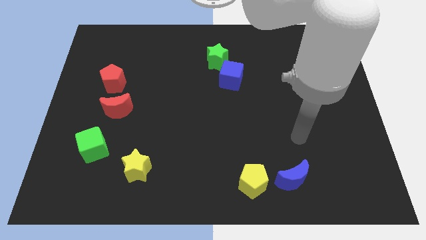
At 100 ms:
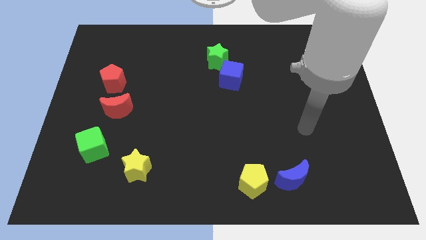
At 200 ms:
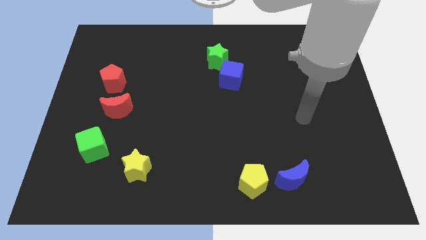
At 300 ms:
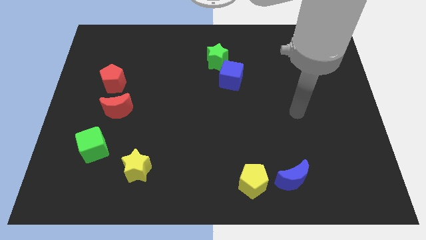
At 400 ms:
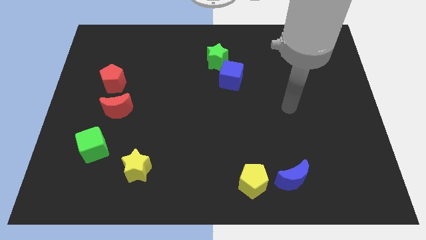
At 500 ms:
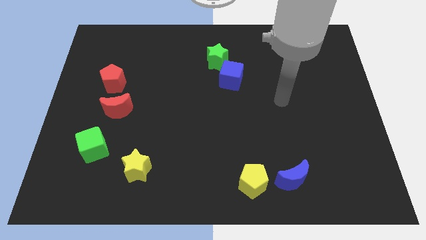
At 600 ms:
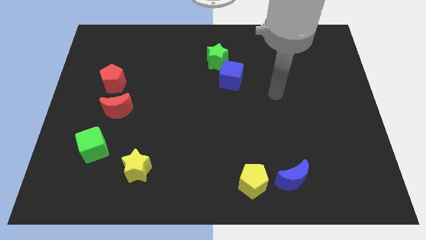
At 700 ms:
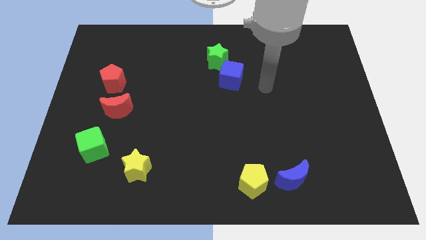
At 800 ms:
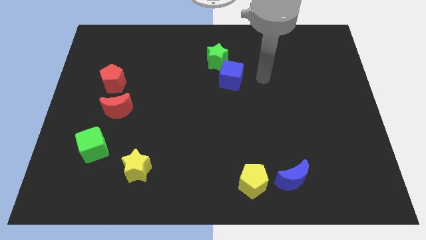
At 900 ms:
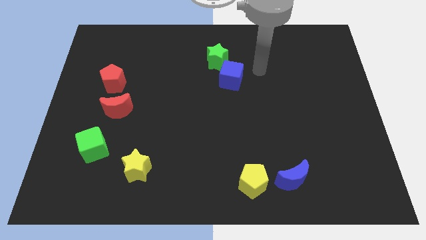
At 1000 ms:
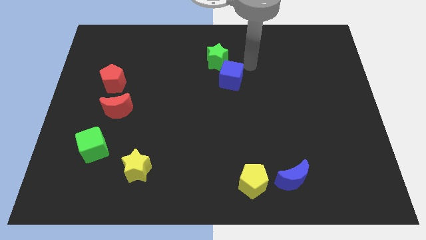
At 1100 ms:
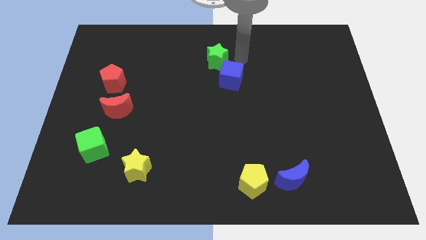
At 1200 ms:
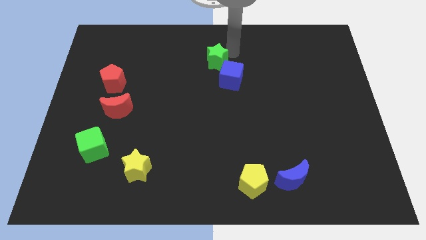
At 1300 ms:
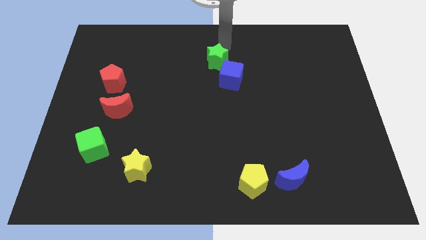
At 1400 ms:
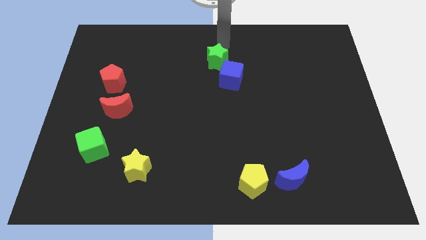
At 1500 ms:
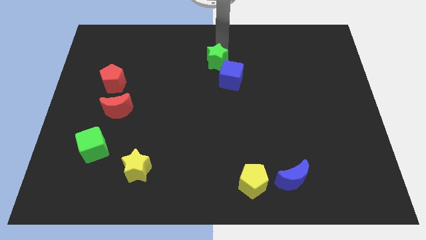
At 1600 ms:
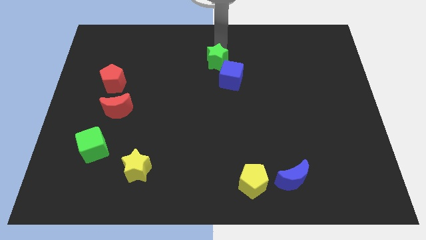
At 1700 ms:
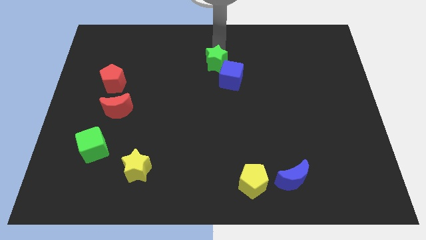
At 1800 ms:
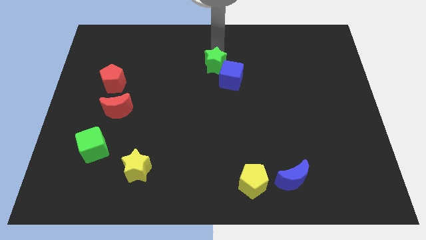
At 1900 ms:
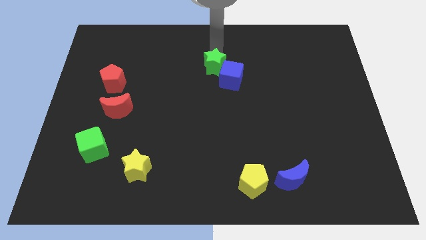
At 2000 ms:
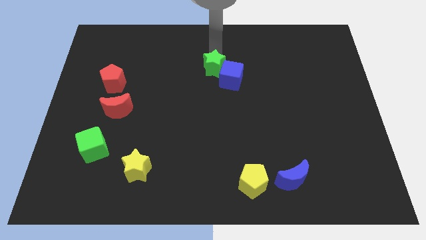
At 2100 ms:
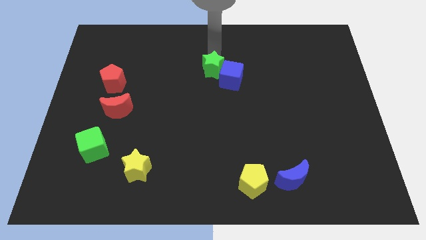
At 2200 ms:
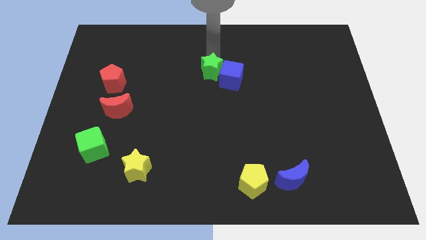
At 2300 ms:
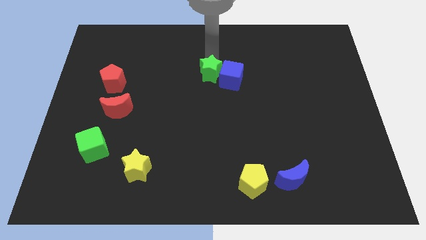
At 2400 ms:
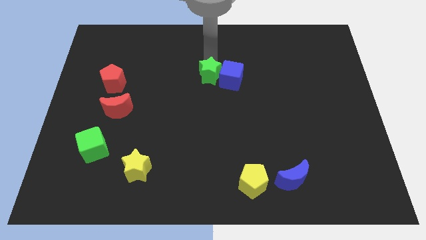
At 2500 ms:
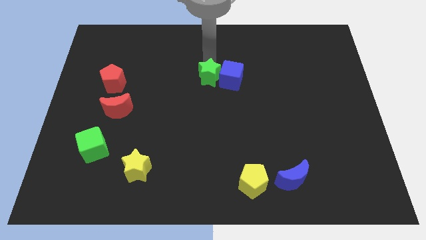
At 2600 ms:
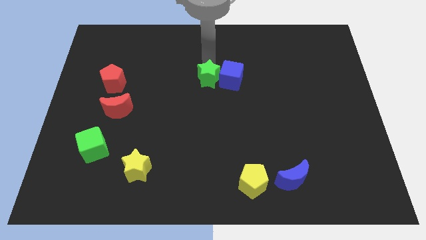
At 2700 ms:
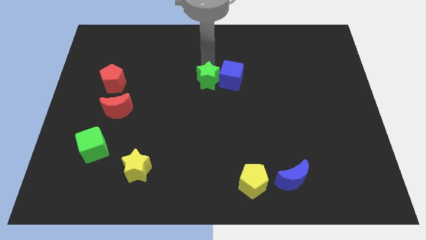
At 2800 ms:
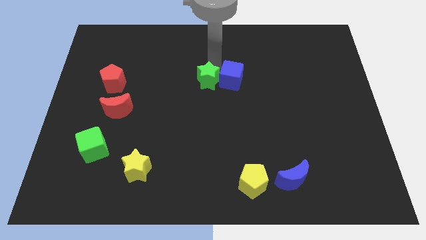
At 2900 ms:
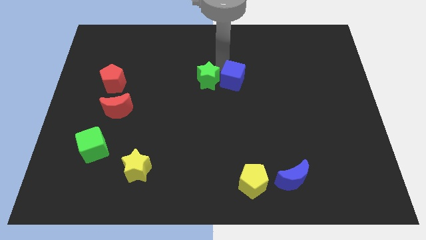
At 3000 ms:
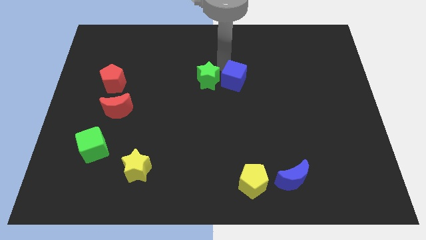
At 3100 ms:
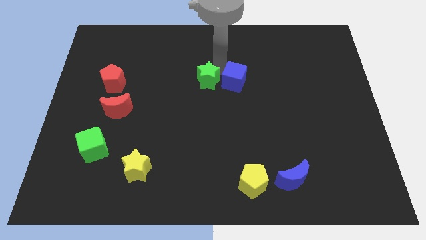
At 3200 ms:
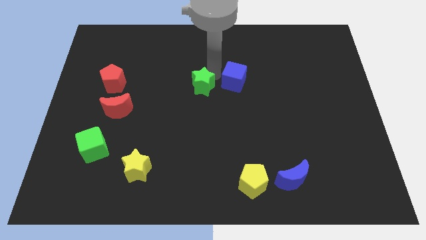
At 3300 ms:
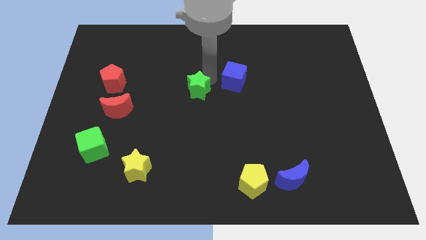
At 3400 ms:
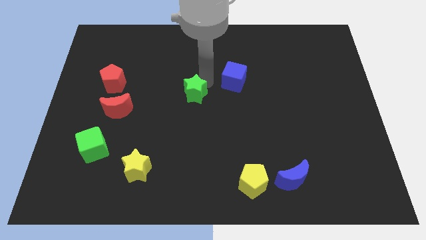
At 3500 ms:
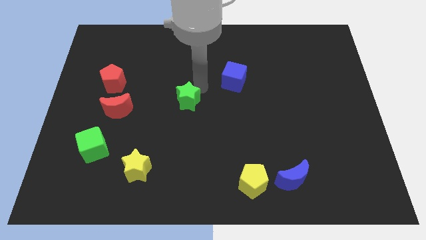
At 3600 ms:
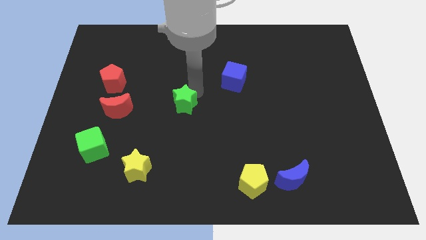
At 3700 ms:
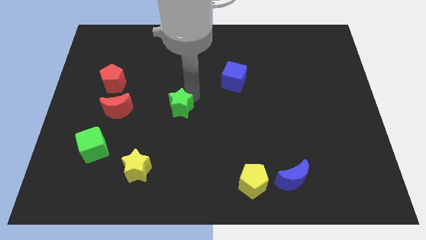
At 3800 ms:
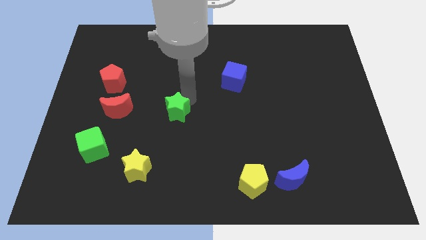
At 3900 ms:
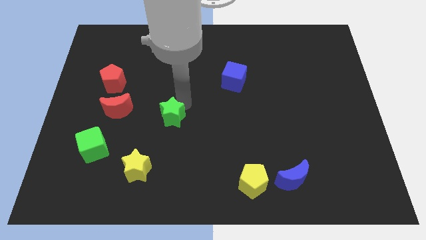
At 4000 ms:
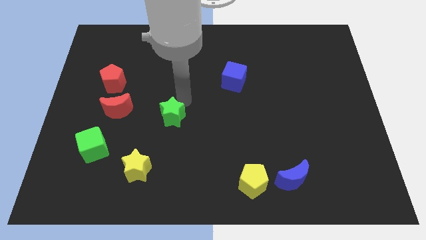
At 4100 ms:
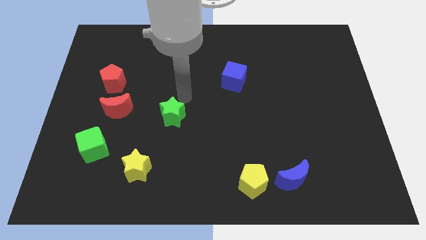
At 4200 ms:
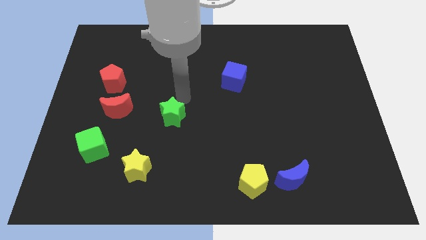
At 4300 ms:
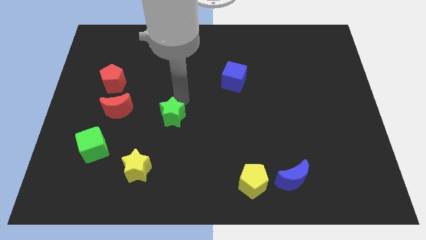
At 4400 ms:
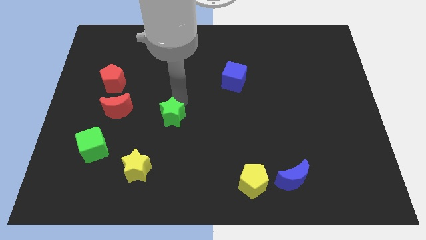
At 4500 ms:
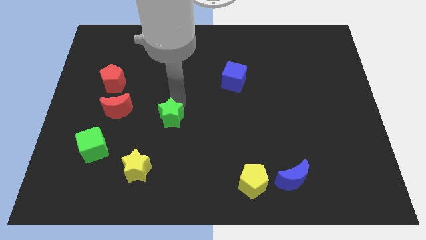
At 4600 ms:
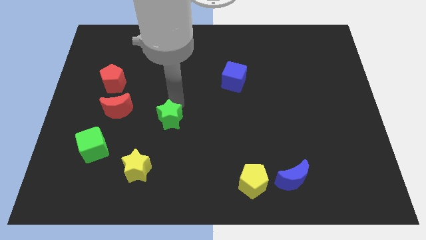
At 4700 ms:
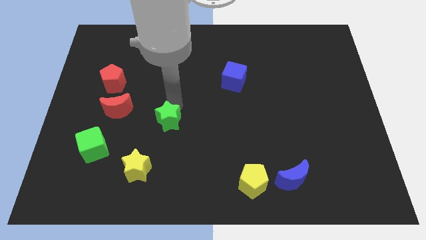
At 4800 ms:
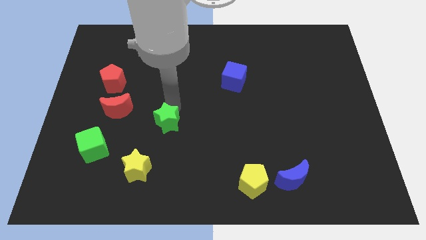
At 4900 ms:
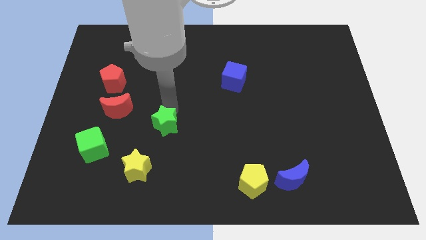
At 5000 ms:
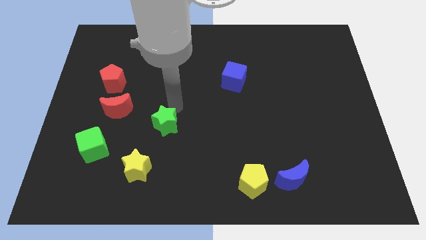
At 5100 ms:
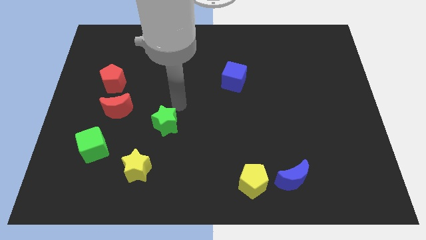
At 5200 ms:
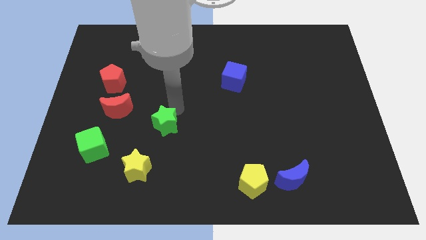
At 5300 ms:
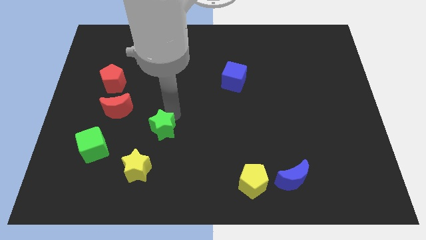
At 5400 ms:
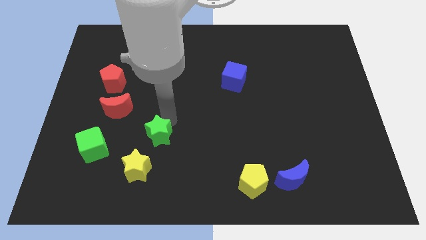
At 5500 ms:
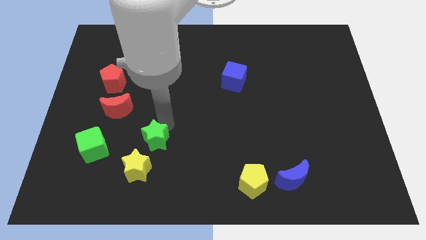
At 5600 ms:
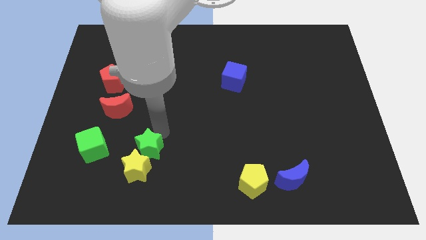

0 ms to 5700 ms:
move the green star towards the yellow star

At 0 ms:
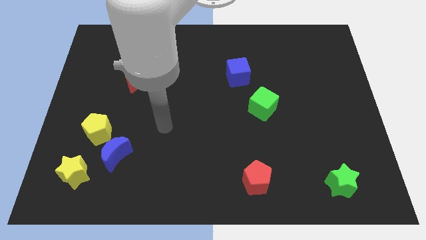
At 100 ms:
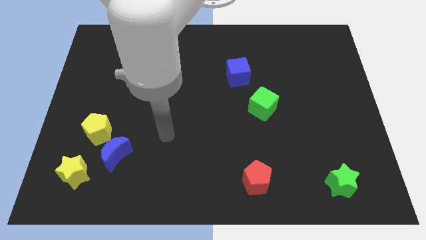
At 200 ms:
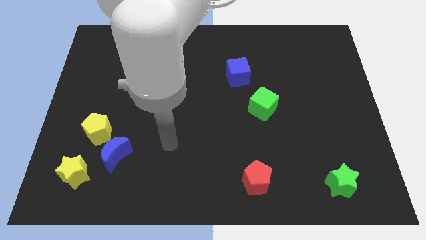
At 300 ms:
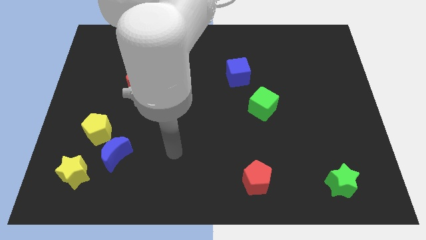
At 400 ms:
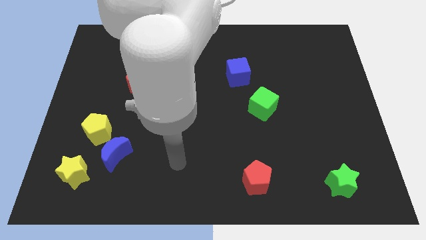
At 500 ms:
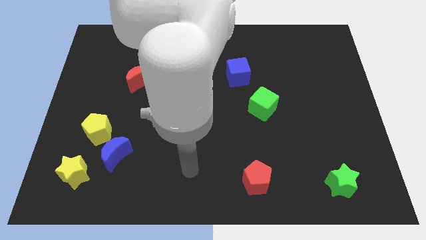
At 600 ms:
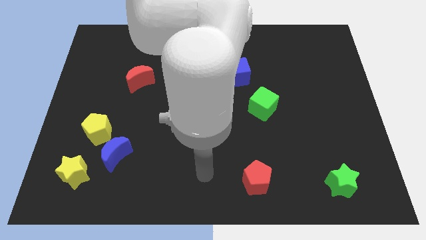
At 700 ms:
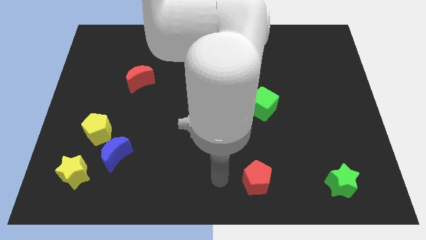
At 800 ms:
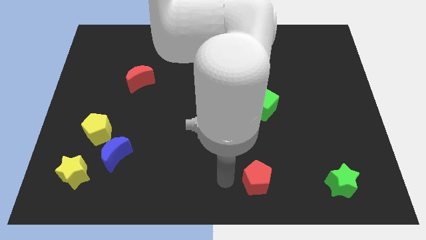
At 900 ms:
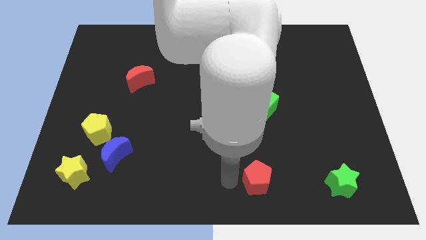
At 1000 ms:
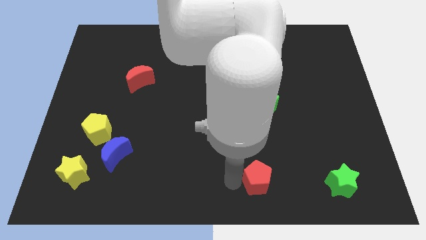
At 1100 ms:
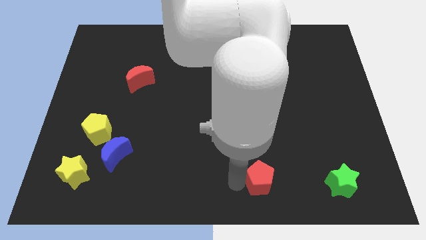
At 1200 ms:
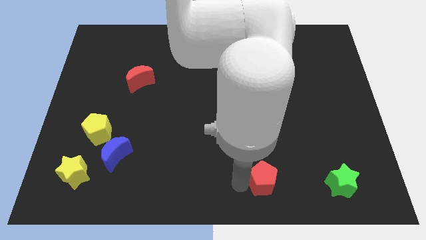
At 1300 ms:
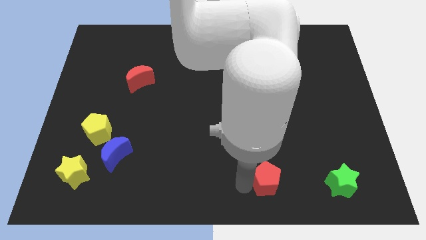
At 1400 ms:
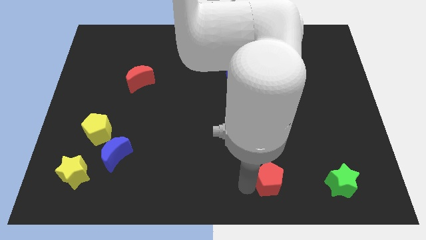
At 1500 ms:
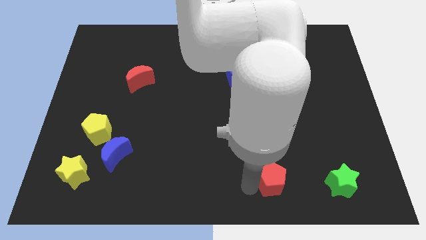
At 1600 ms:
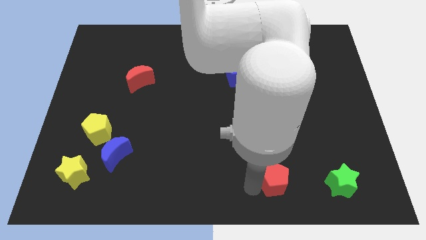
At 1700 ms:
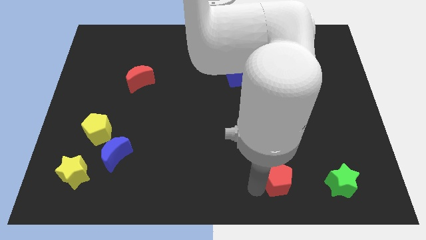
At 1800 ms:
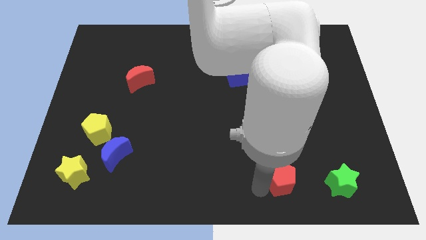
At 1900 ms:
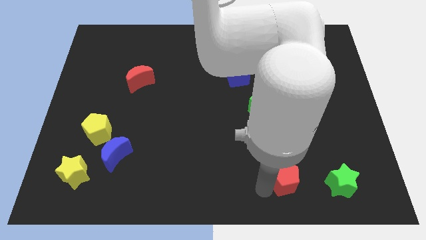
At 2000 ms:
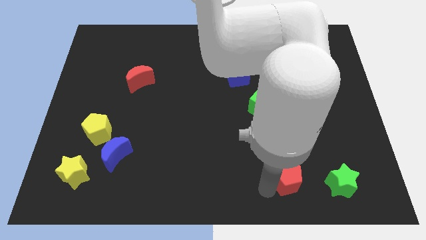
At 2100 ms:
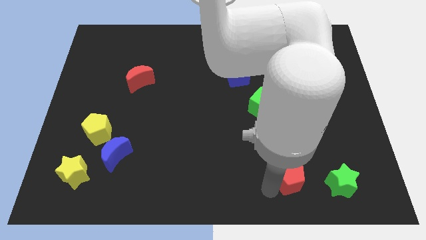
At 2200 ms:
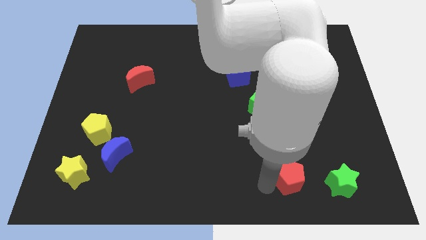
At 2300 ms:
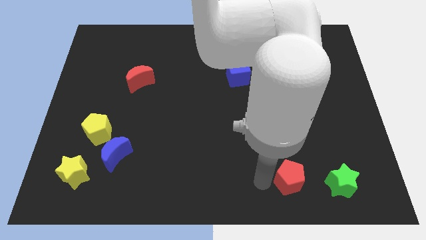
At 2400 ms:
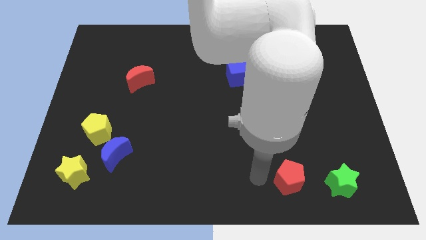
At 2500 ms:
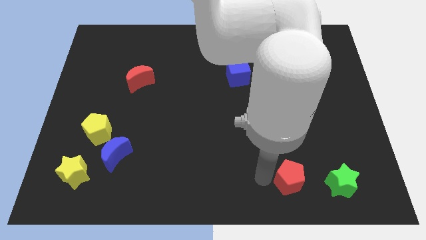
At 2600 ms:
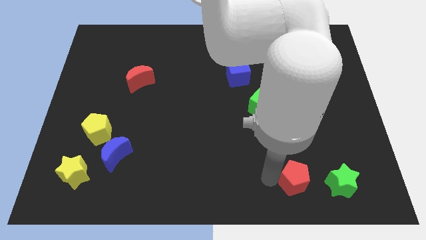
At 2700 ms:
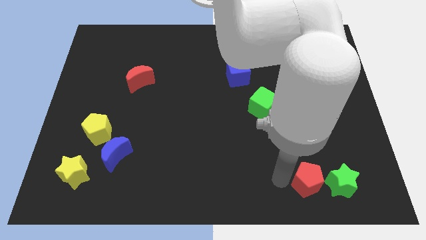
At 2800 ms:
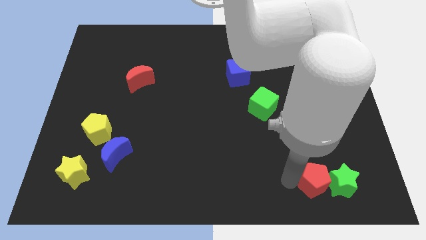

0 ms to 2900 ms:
move the red pentagon to the green star
